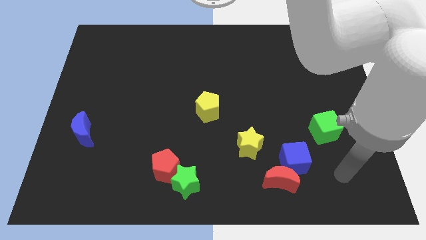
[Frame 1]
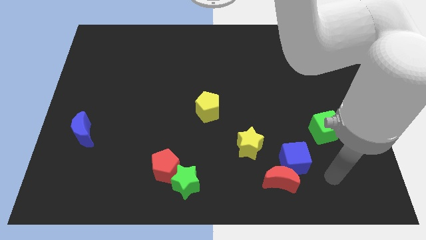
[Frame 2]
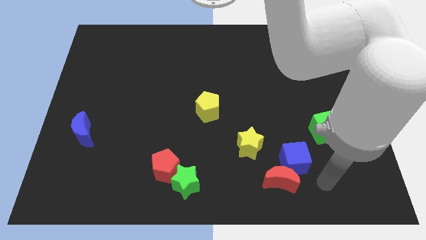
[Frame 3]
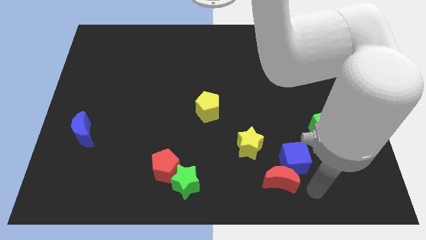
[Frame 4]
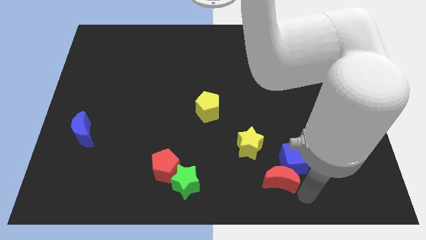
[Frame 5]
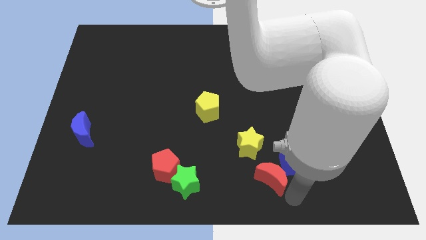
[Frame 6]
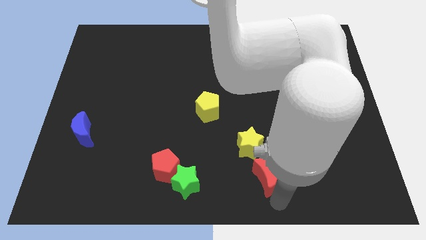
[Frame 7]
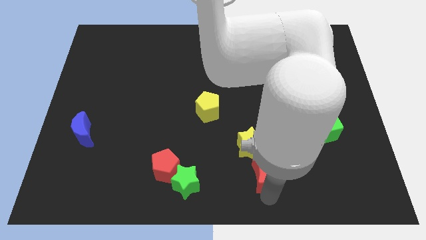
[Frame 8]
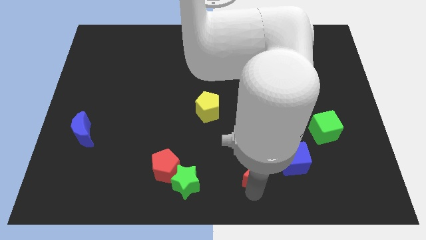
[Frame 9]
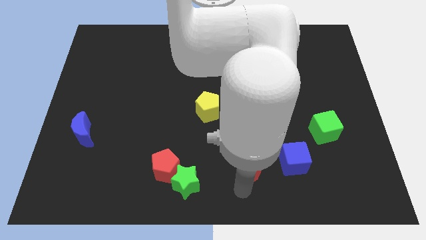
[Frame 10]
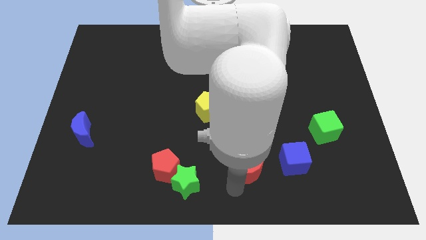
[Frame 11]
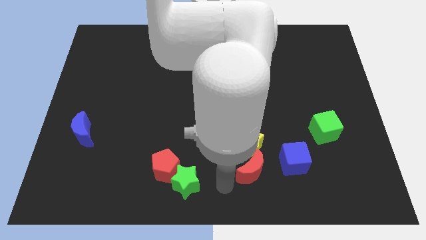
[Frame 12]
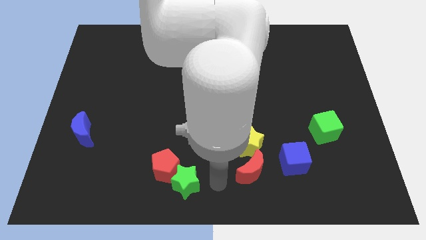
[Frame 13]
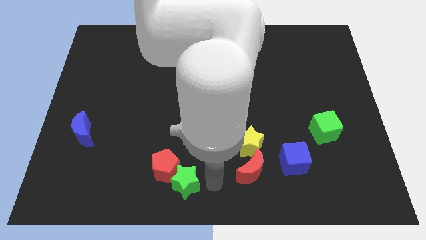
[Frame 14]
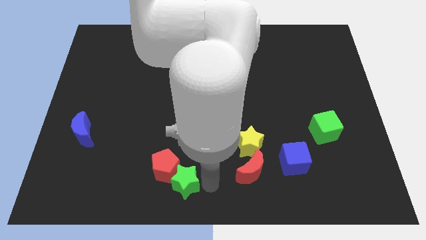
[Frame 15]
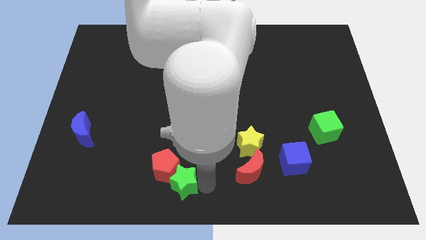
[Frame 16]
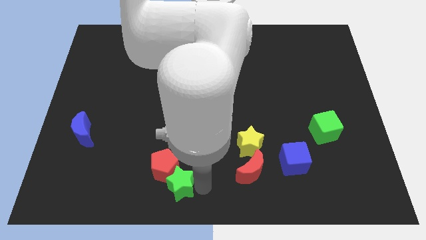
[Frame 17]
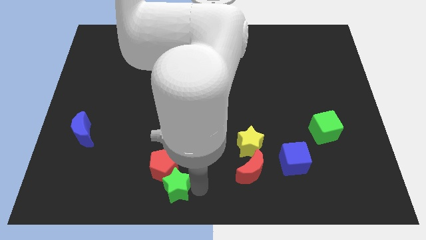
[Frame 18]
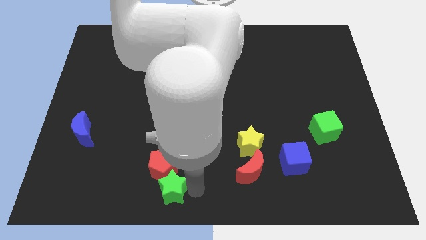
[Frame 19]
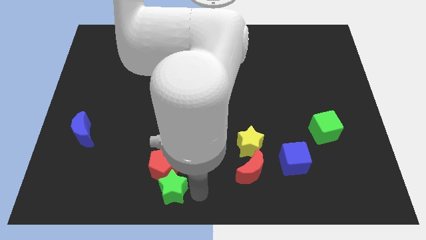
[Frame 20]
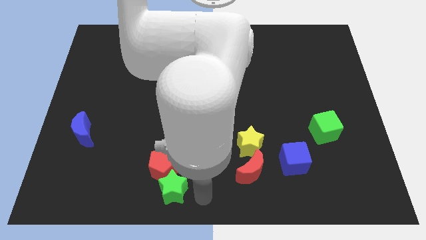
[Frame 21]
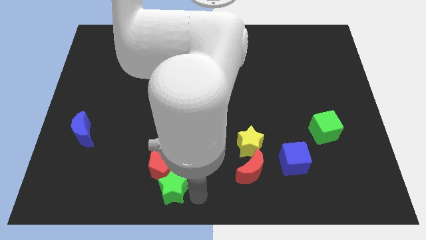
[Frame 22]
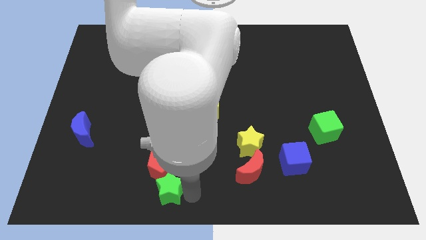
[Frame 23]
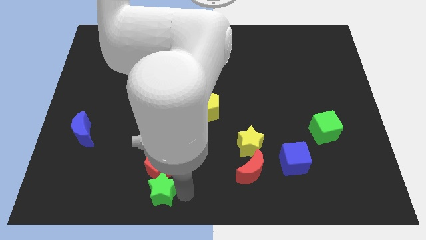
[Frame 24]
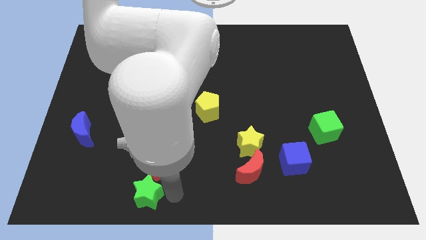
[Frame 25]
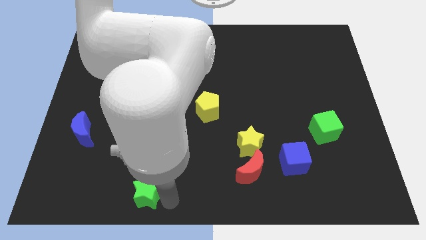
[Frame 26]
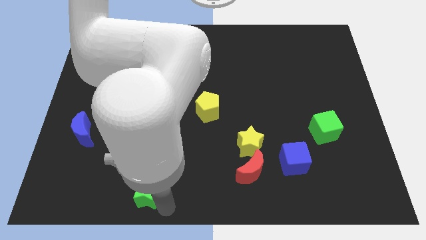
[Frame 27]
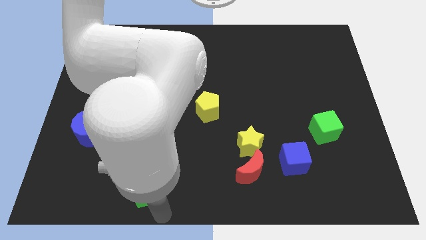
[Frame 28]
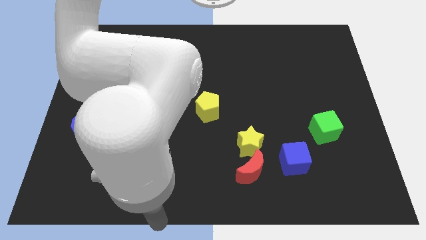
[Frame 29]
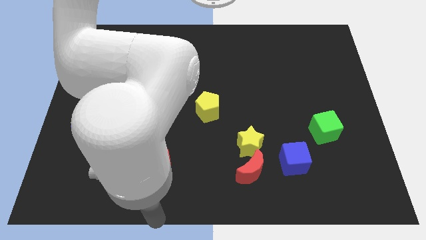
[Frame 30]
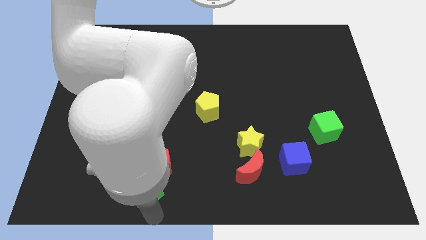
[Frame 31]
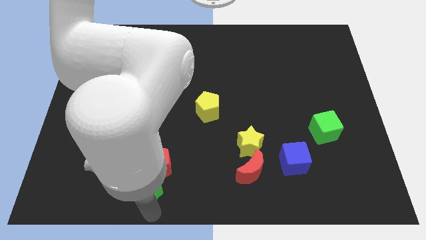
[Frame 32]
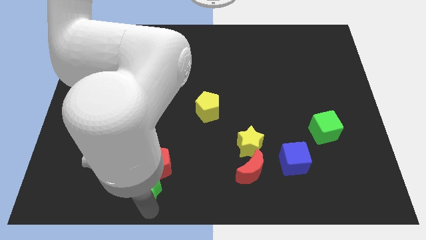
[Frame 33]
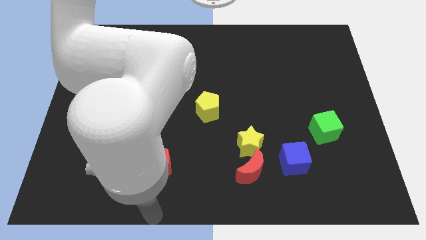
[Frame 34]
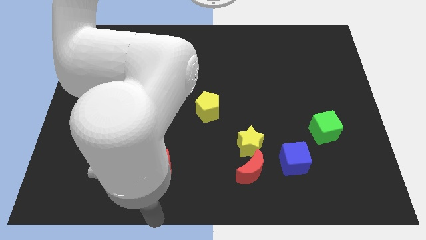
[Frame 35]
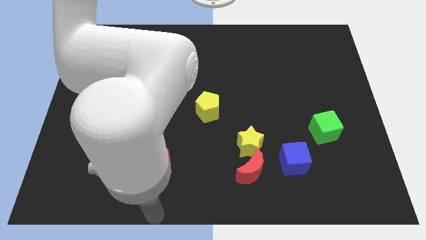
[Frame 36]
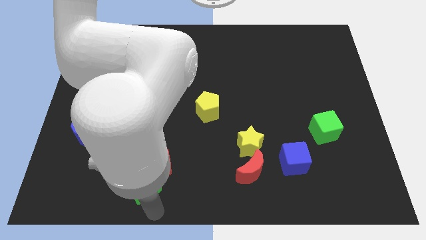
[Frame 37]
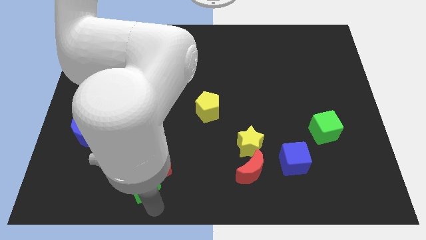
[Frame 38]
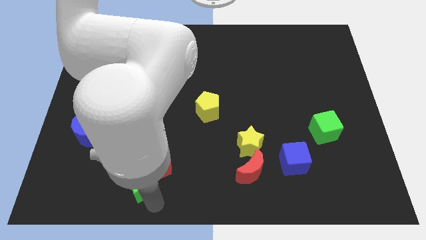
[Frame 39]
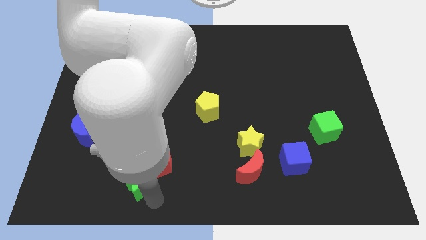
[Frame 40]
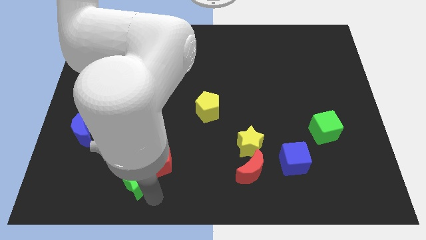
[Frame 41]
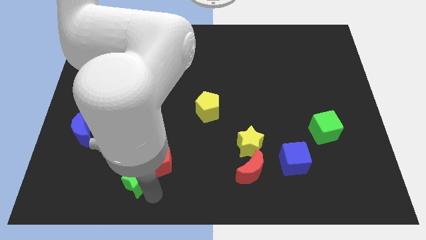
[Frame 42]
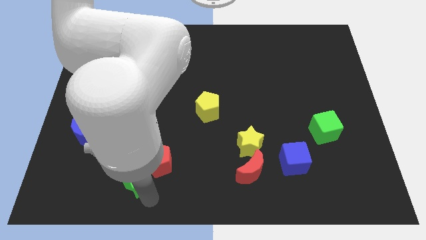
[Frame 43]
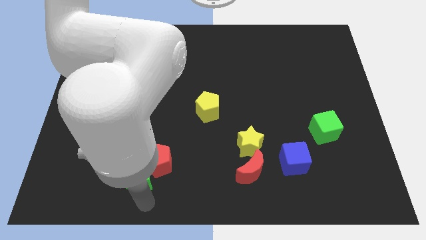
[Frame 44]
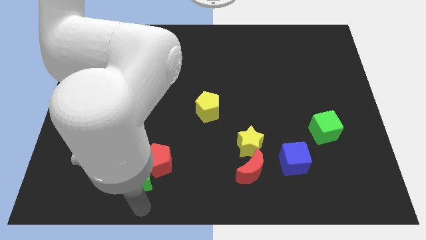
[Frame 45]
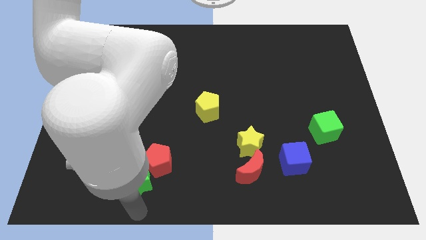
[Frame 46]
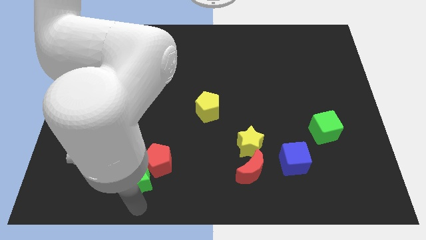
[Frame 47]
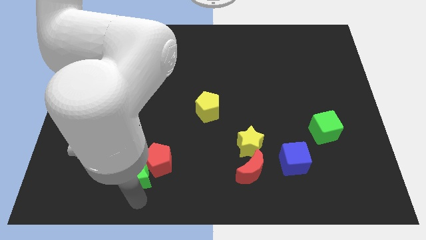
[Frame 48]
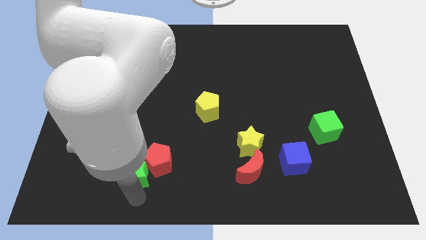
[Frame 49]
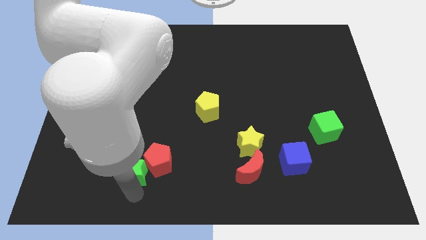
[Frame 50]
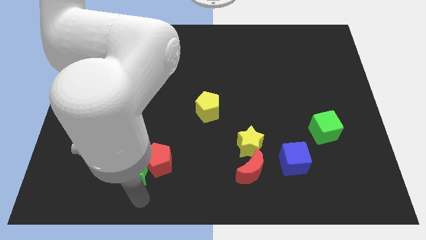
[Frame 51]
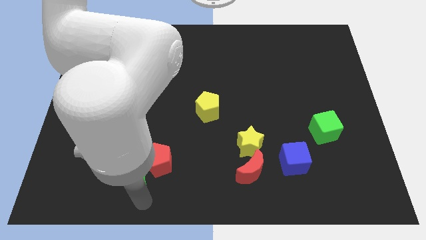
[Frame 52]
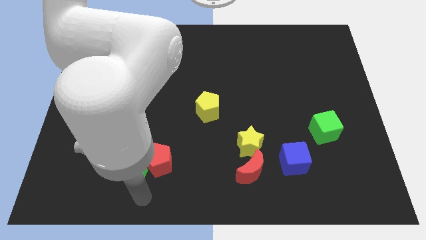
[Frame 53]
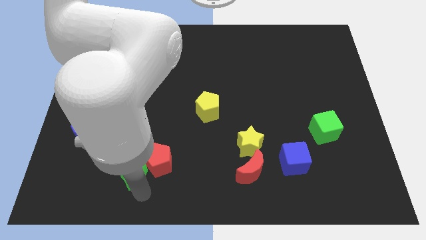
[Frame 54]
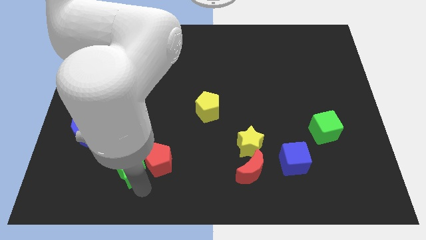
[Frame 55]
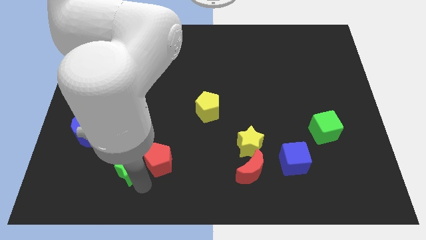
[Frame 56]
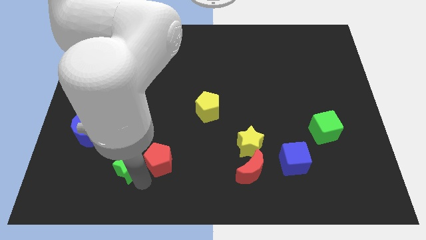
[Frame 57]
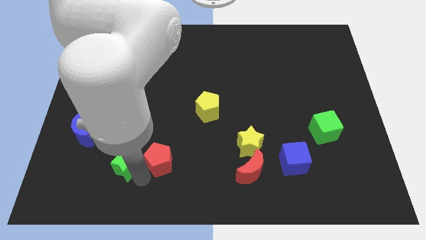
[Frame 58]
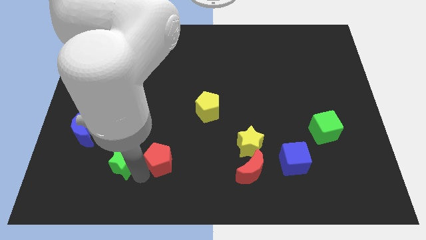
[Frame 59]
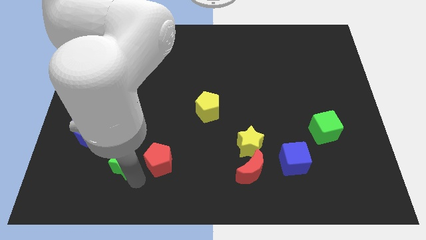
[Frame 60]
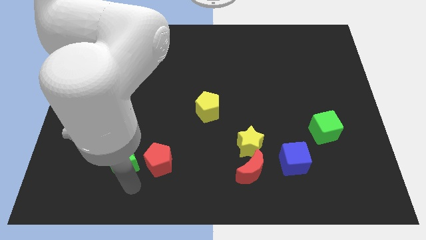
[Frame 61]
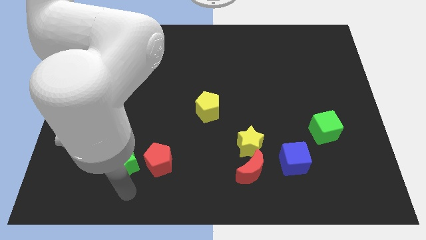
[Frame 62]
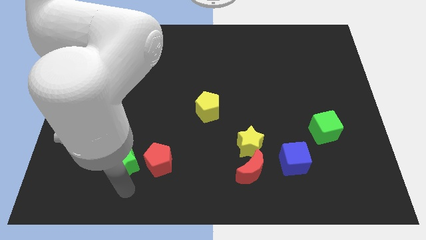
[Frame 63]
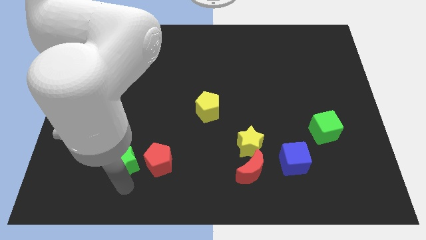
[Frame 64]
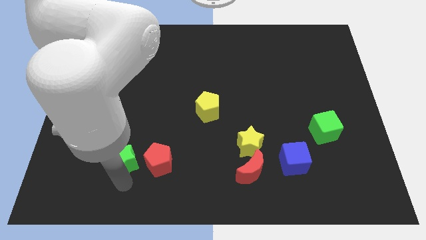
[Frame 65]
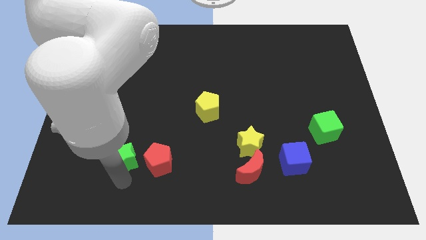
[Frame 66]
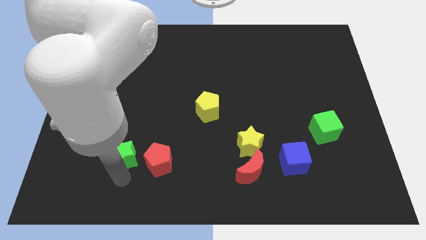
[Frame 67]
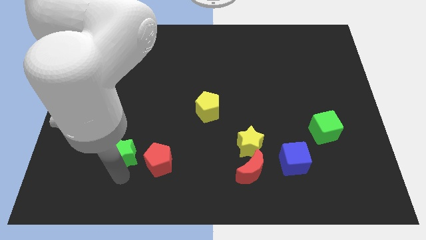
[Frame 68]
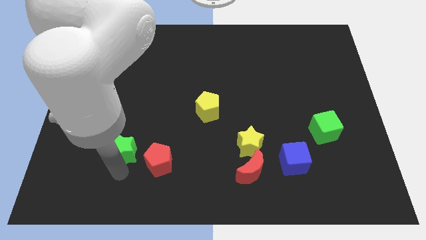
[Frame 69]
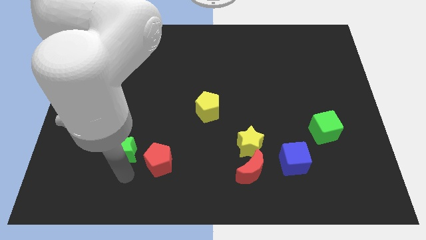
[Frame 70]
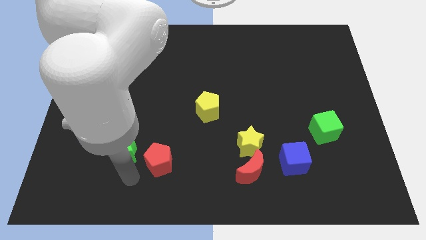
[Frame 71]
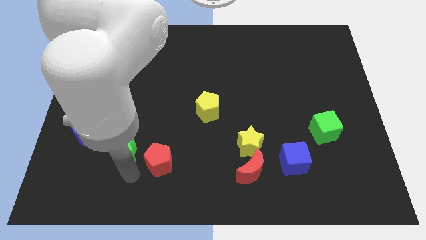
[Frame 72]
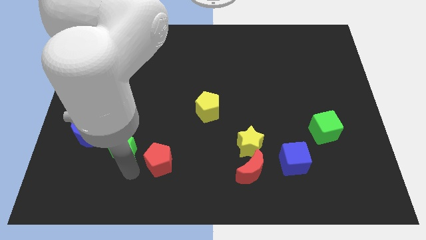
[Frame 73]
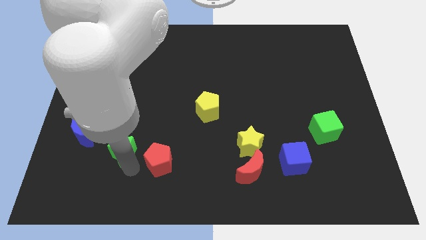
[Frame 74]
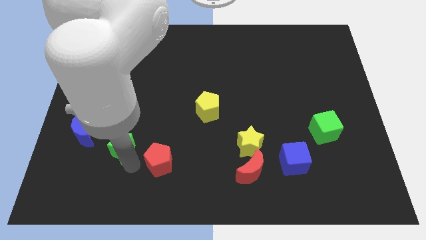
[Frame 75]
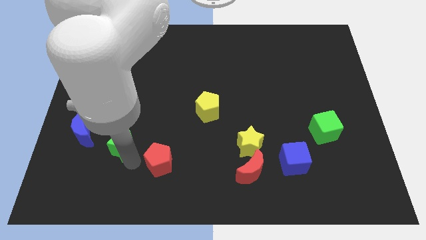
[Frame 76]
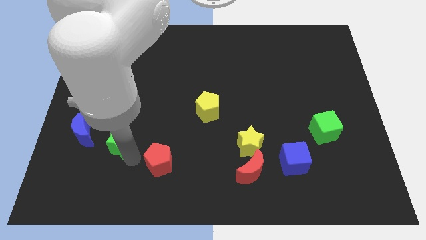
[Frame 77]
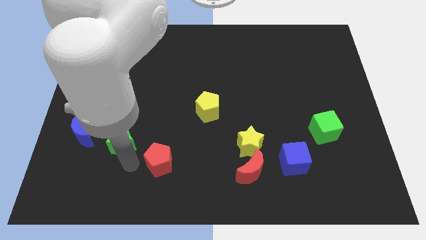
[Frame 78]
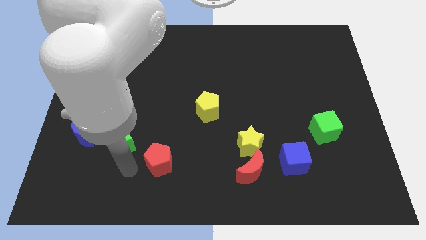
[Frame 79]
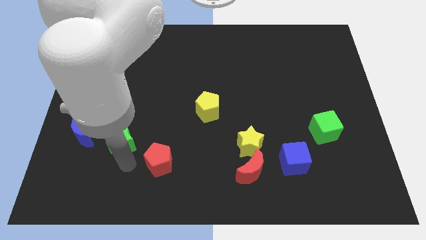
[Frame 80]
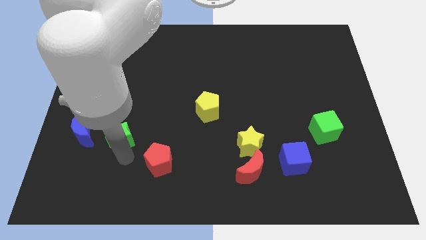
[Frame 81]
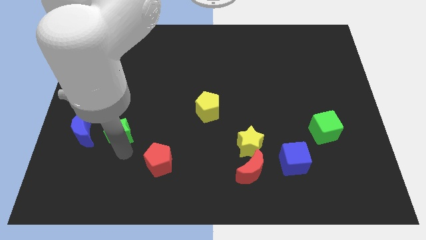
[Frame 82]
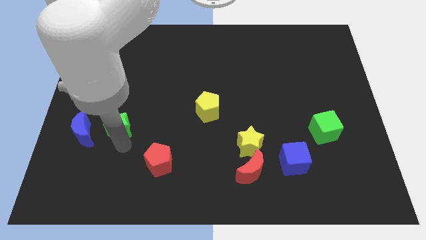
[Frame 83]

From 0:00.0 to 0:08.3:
move the green star up and then to the left
